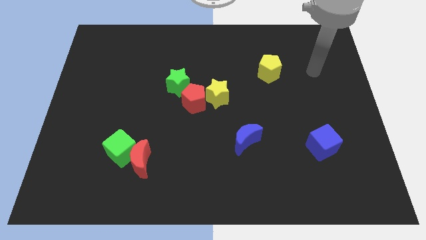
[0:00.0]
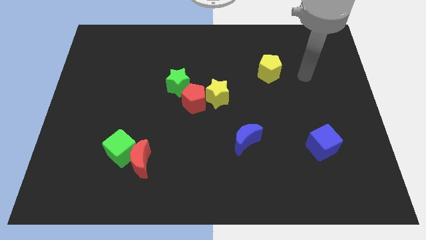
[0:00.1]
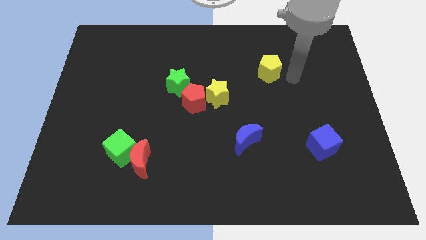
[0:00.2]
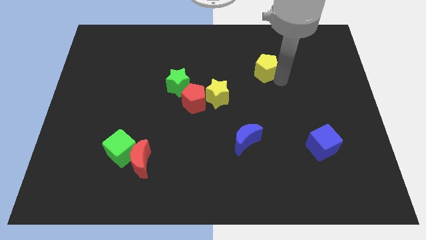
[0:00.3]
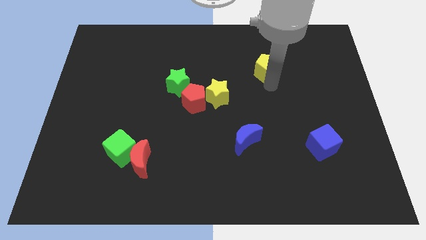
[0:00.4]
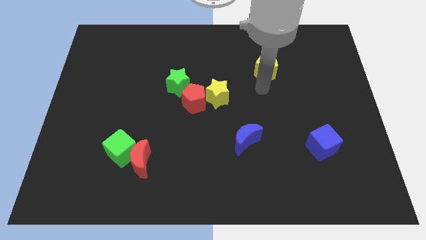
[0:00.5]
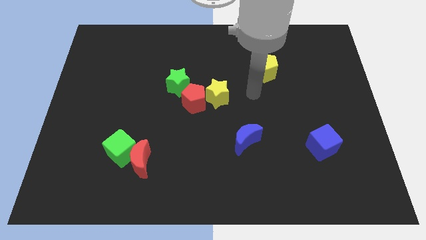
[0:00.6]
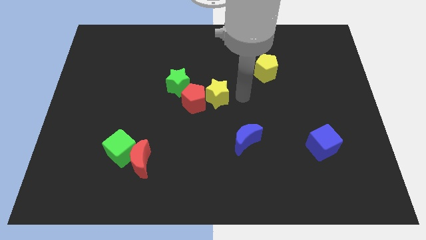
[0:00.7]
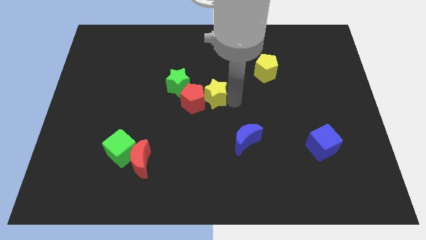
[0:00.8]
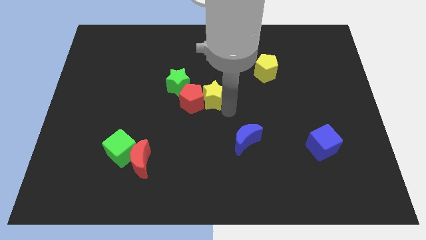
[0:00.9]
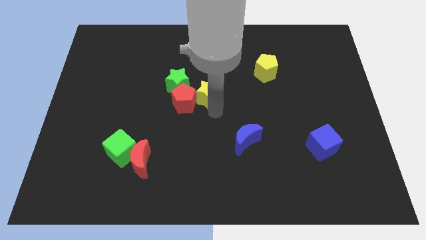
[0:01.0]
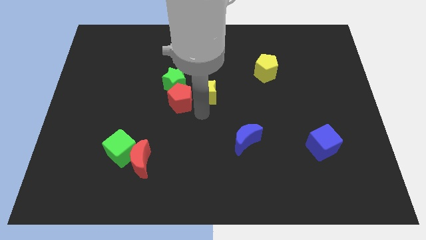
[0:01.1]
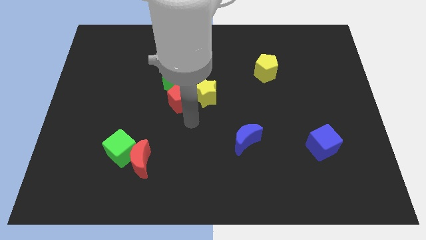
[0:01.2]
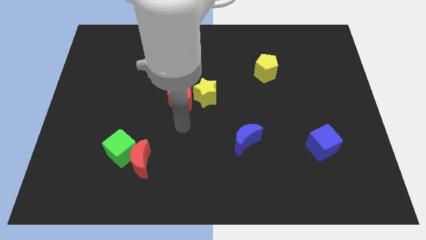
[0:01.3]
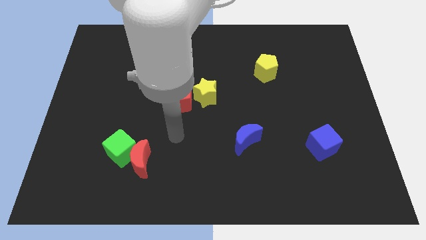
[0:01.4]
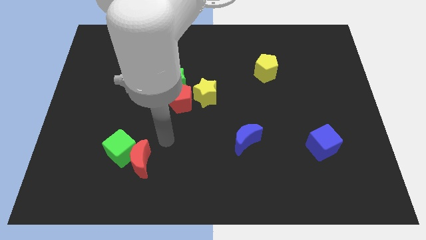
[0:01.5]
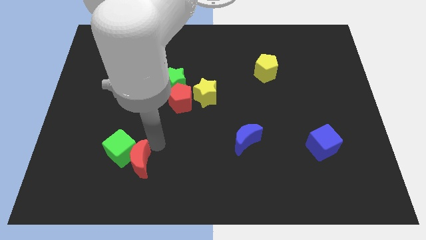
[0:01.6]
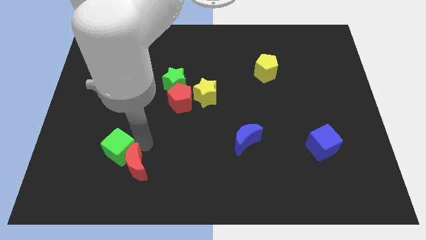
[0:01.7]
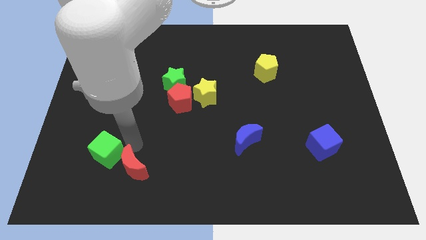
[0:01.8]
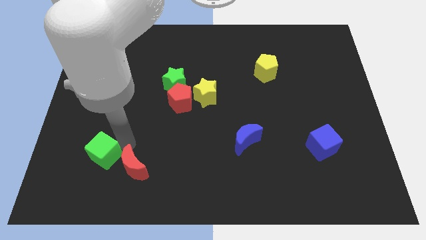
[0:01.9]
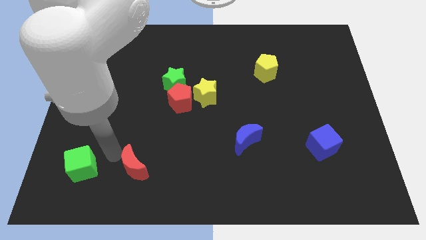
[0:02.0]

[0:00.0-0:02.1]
pull the red moon apart from the green cube

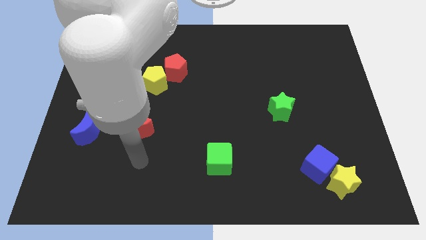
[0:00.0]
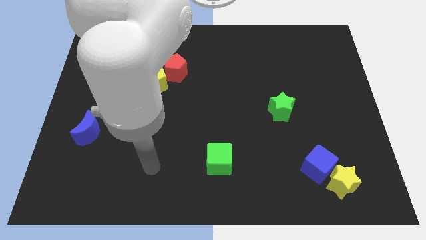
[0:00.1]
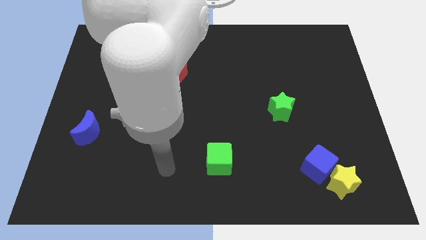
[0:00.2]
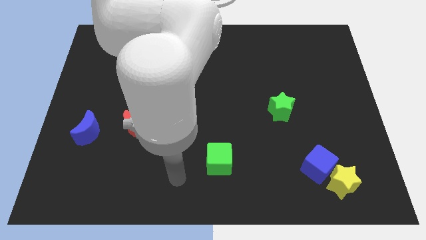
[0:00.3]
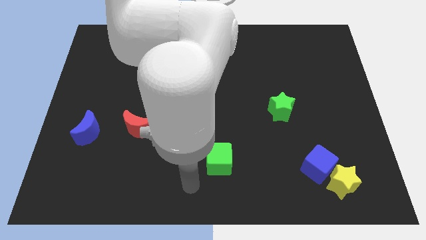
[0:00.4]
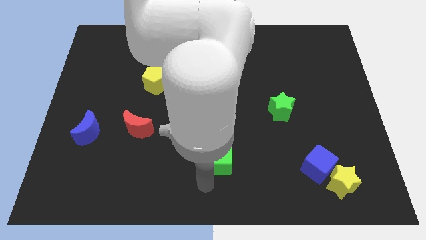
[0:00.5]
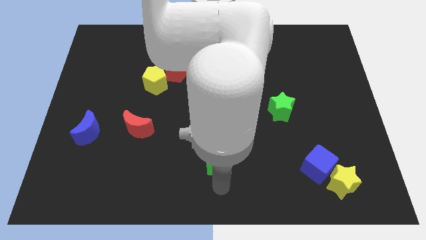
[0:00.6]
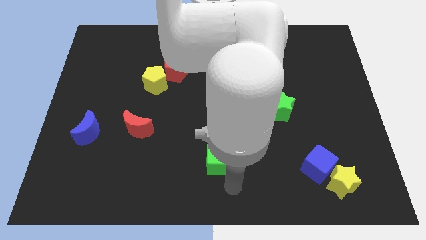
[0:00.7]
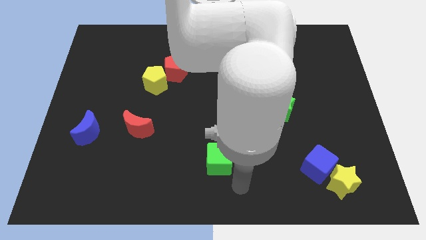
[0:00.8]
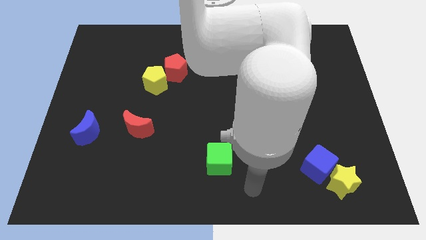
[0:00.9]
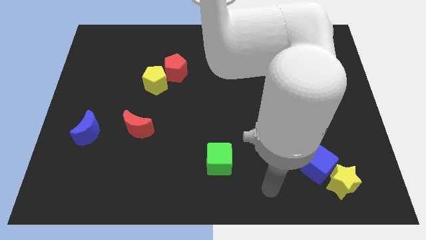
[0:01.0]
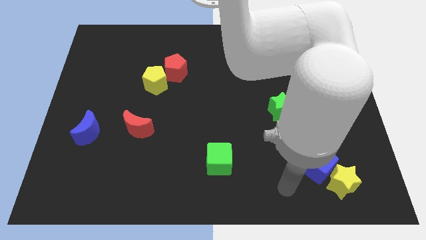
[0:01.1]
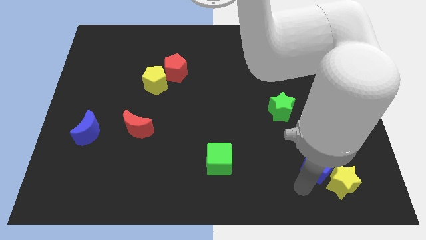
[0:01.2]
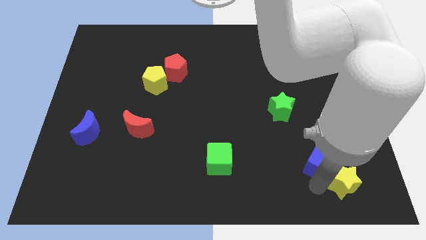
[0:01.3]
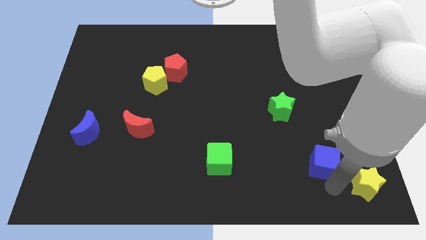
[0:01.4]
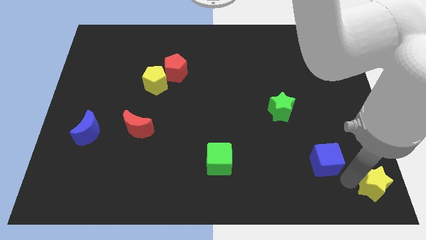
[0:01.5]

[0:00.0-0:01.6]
separate the blue cube from the yellow star

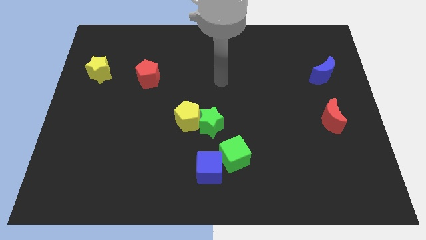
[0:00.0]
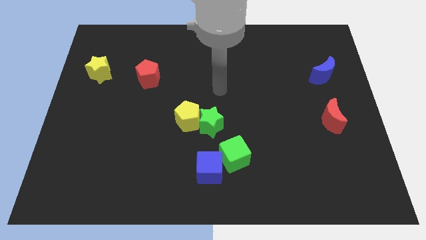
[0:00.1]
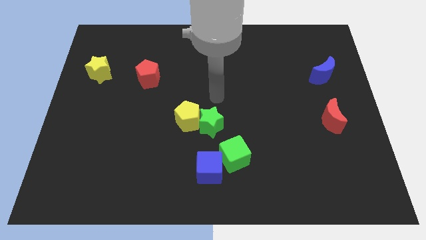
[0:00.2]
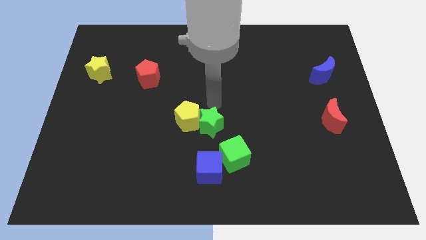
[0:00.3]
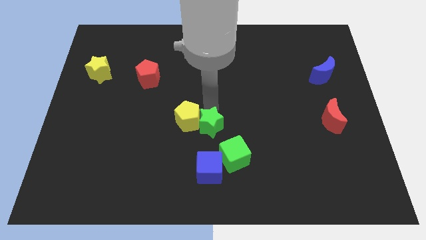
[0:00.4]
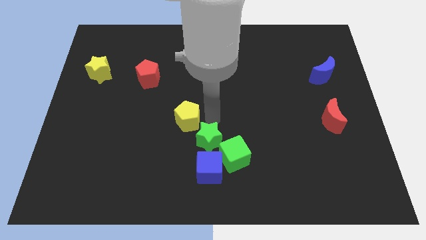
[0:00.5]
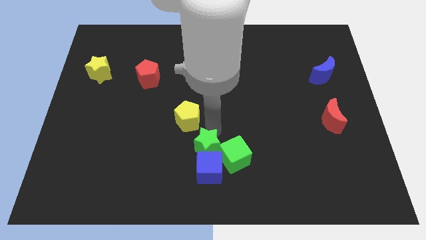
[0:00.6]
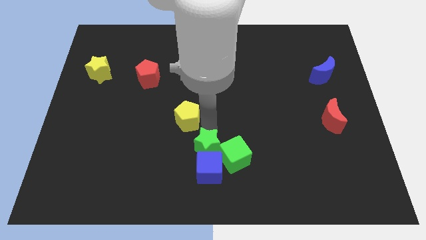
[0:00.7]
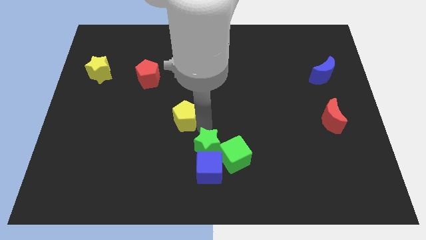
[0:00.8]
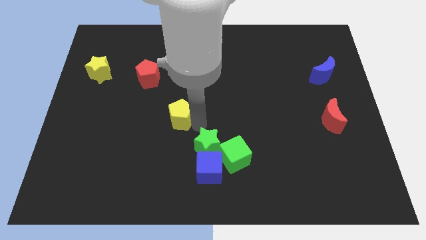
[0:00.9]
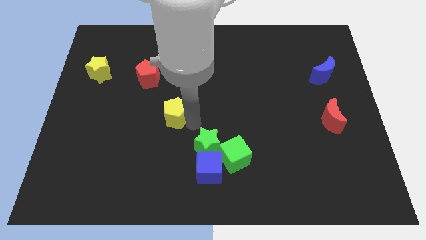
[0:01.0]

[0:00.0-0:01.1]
pull the yellow pentagon apart from the green star

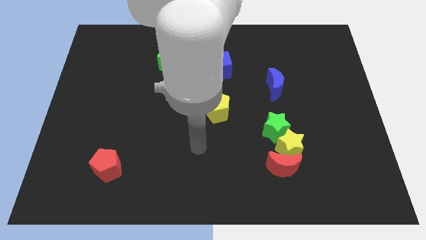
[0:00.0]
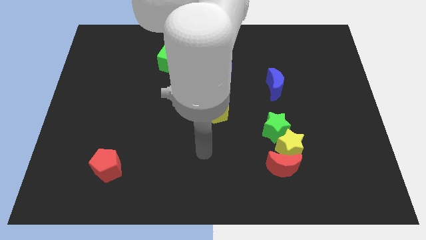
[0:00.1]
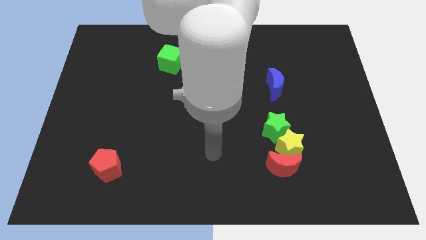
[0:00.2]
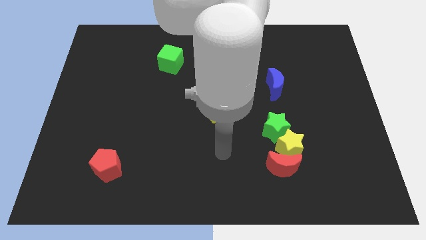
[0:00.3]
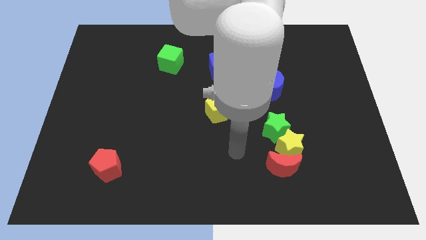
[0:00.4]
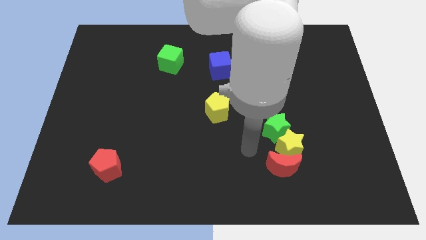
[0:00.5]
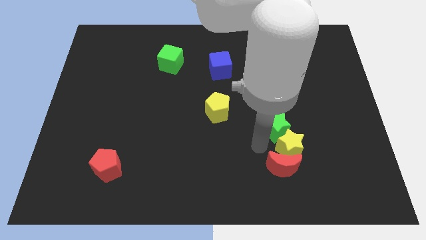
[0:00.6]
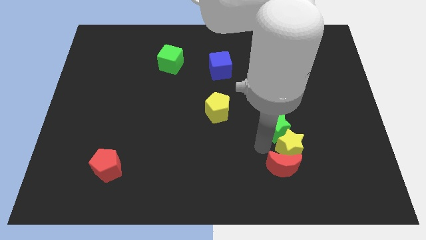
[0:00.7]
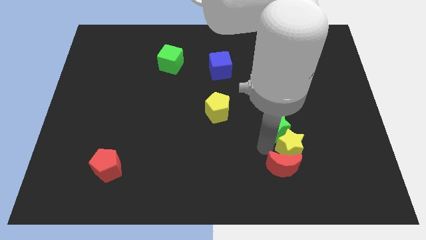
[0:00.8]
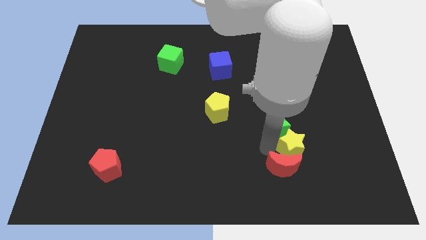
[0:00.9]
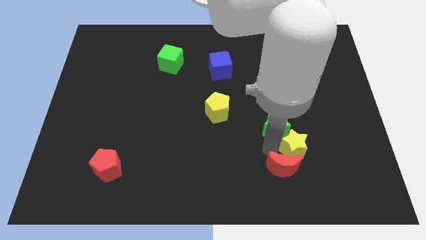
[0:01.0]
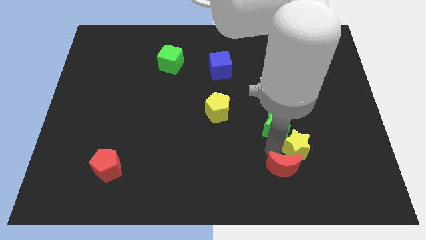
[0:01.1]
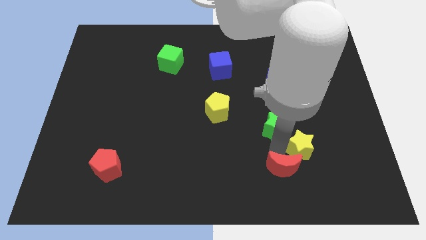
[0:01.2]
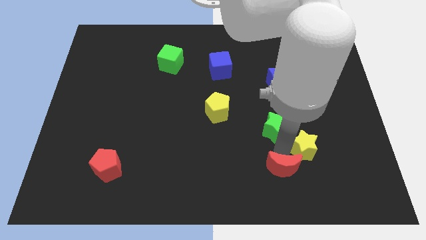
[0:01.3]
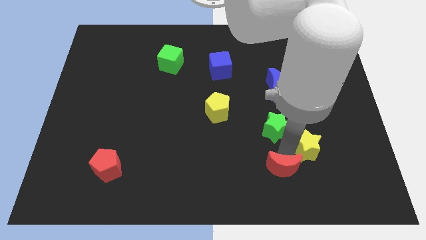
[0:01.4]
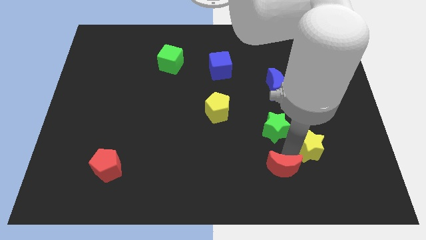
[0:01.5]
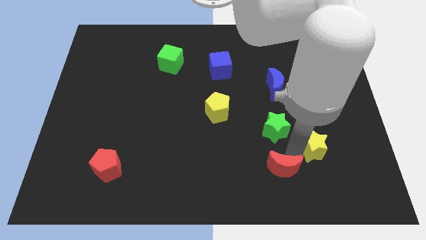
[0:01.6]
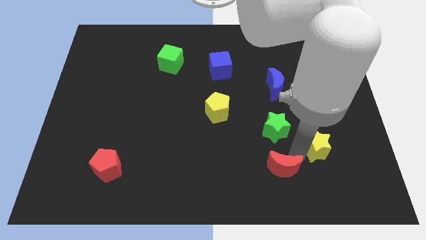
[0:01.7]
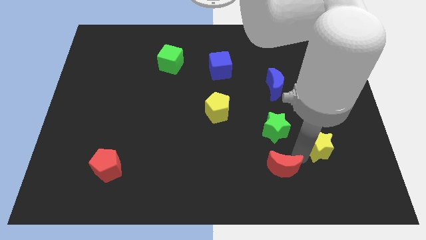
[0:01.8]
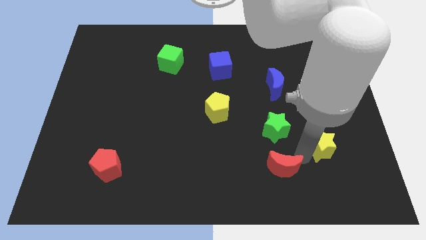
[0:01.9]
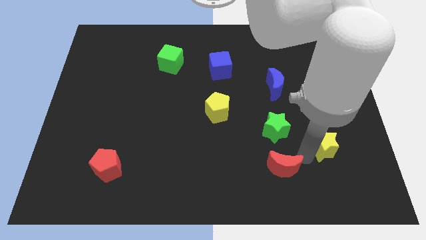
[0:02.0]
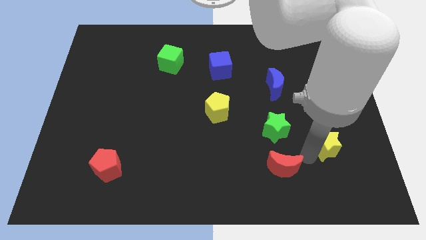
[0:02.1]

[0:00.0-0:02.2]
move the yellow star away from the red moon and green star

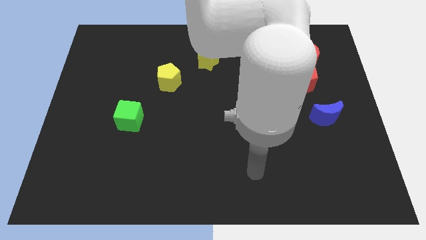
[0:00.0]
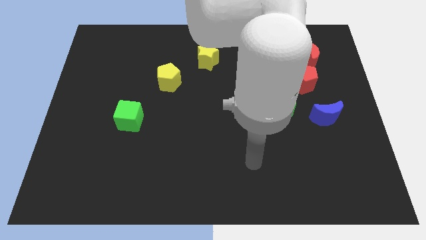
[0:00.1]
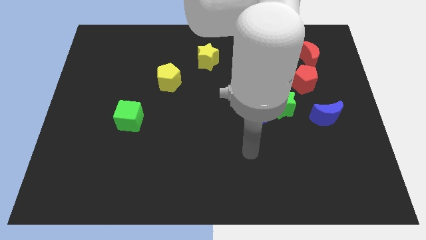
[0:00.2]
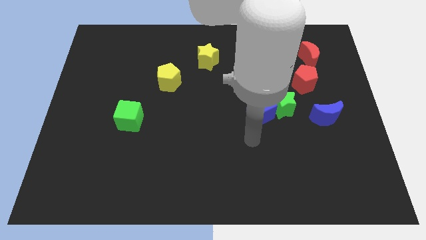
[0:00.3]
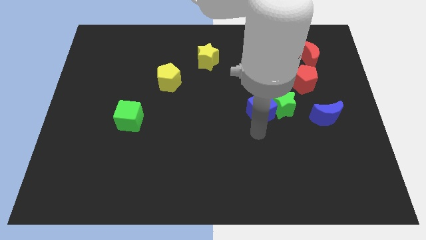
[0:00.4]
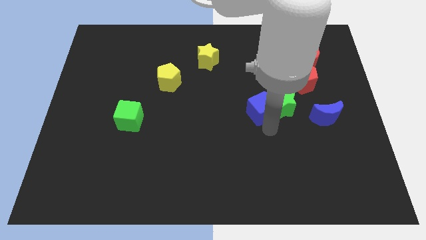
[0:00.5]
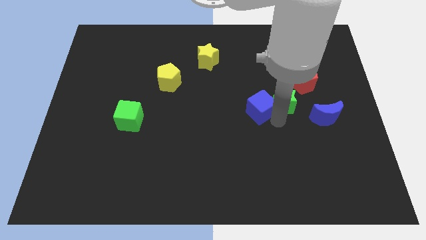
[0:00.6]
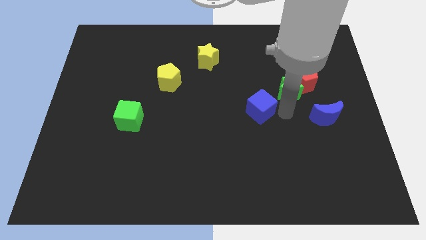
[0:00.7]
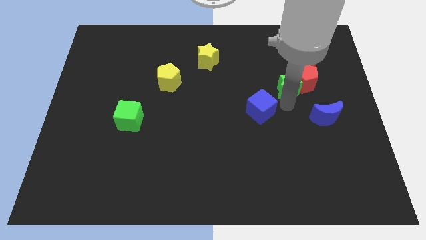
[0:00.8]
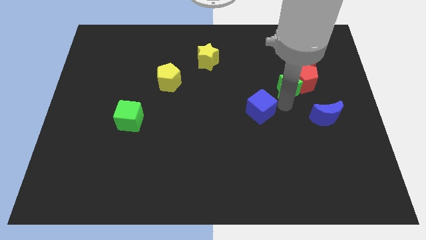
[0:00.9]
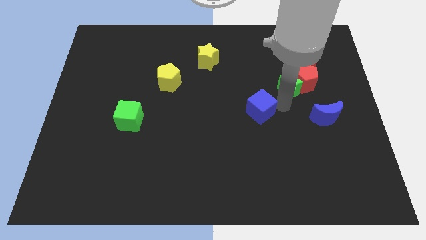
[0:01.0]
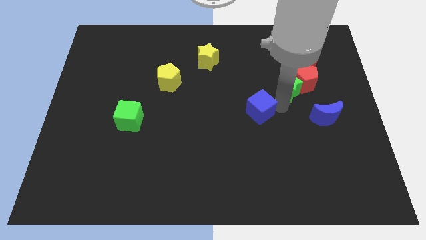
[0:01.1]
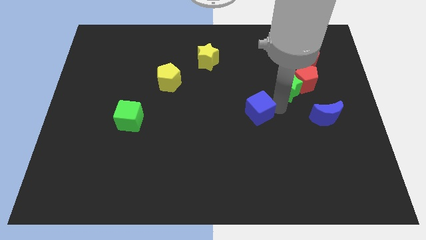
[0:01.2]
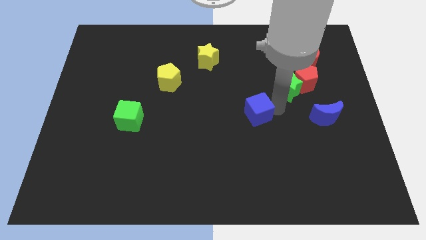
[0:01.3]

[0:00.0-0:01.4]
move the blue cube away from the green star

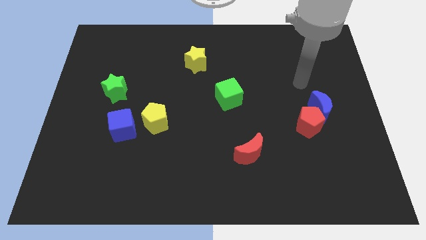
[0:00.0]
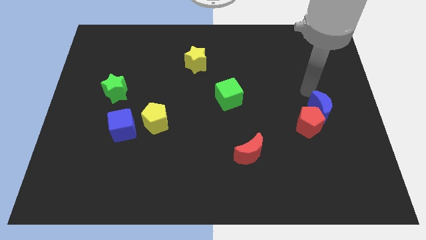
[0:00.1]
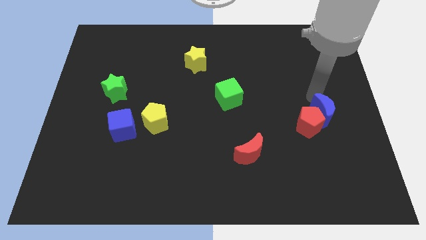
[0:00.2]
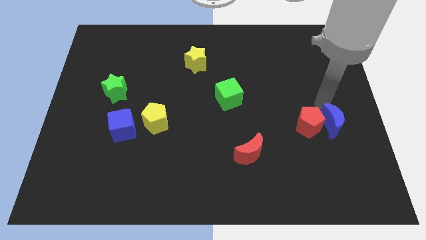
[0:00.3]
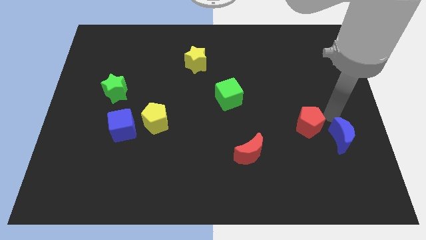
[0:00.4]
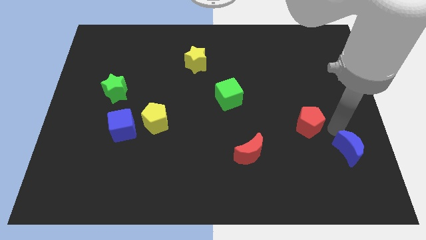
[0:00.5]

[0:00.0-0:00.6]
separate the red pentagon from the blue moon
